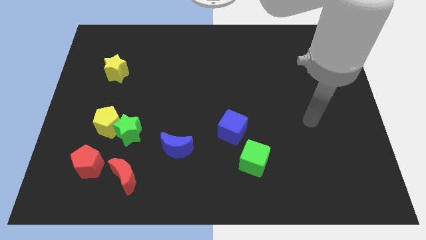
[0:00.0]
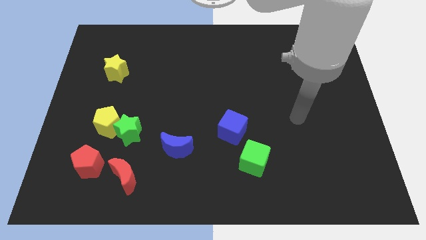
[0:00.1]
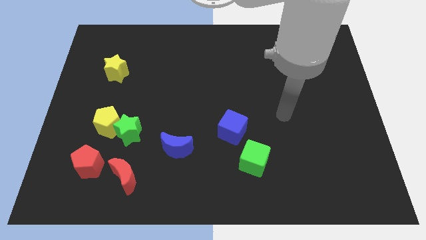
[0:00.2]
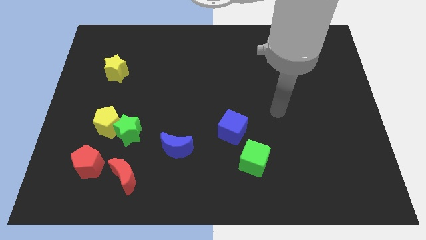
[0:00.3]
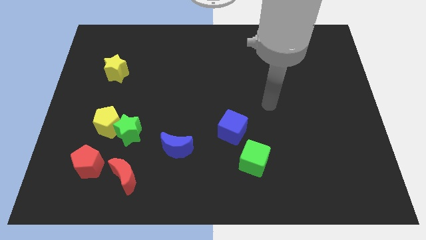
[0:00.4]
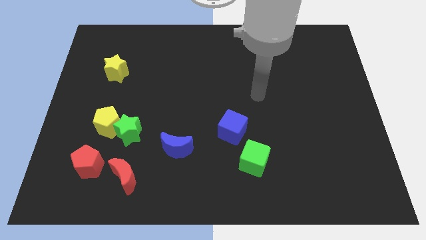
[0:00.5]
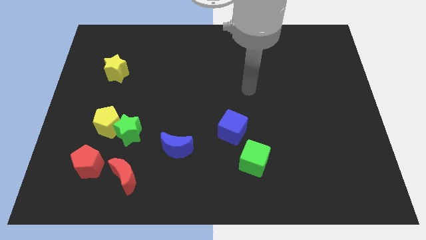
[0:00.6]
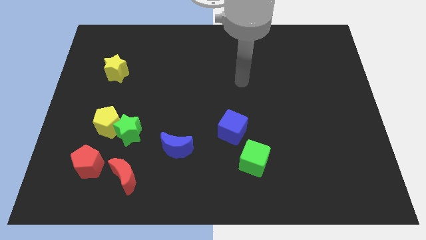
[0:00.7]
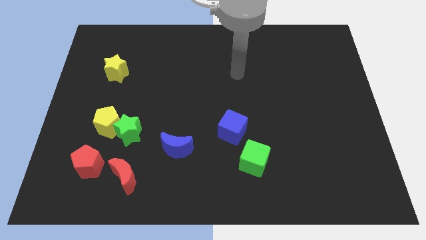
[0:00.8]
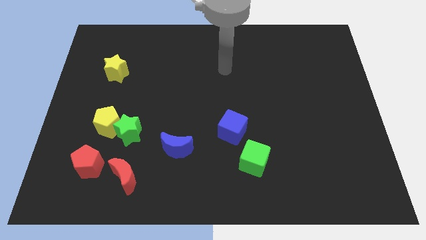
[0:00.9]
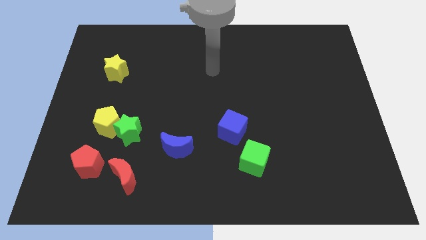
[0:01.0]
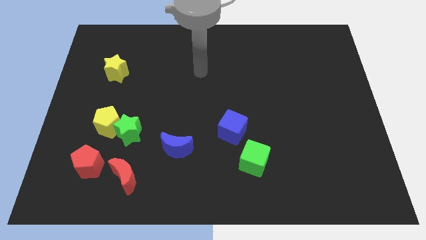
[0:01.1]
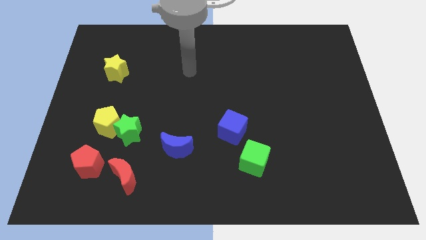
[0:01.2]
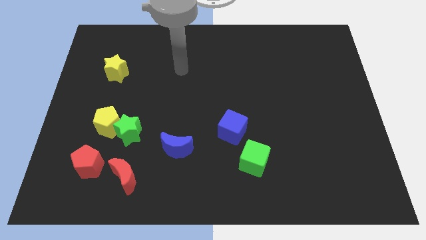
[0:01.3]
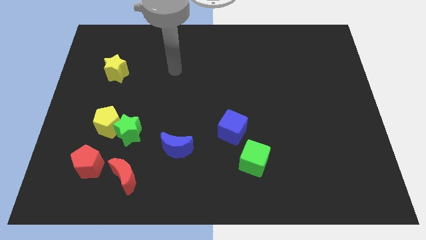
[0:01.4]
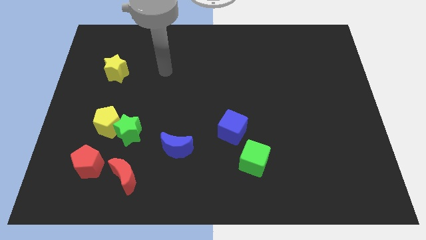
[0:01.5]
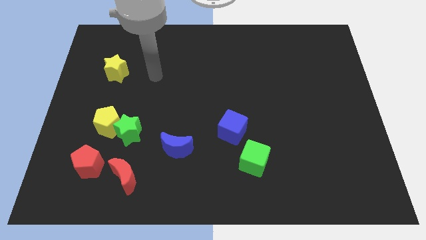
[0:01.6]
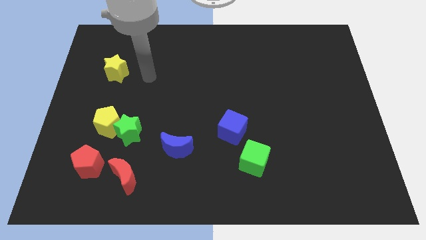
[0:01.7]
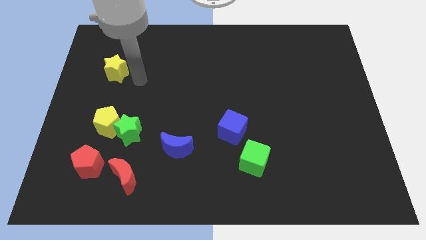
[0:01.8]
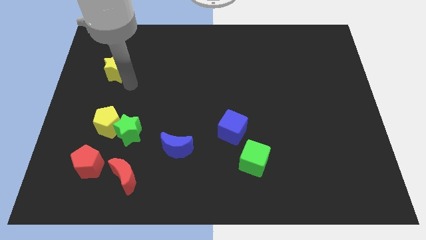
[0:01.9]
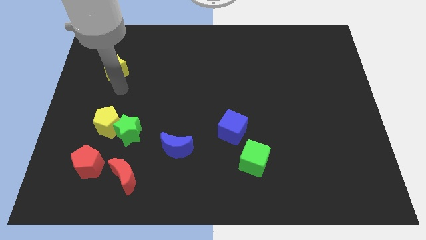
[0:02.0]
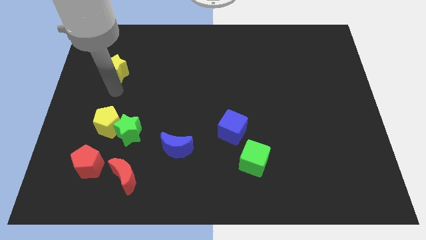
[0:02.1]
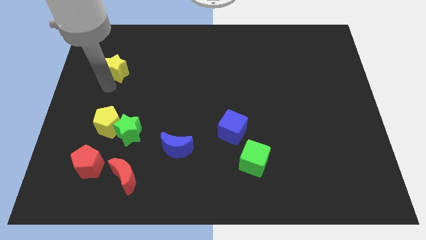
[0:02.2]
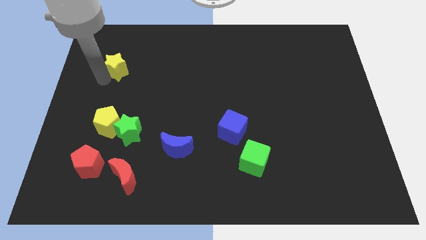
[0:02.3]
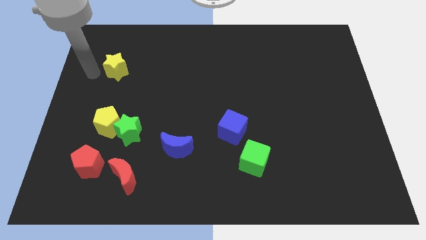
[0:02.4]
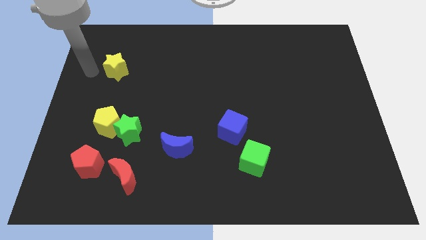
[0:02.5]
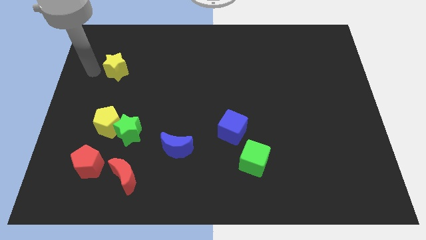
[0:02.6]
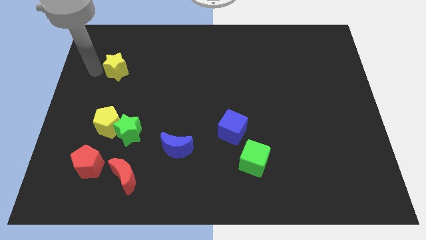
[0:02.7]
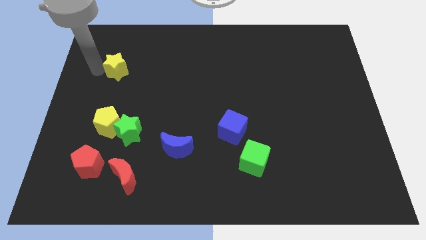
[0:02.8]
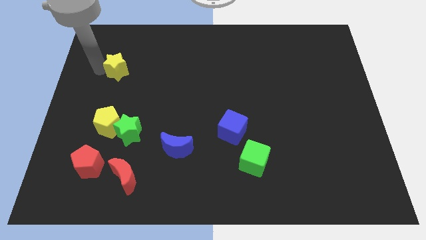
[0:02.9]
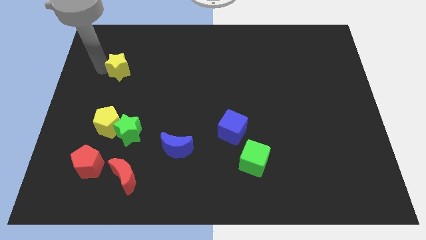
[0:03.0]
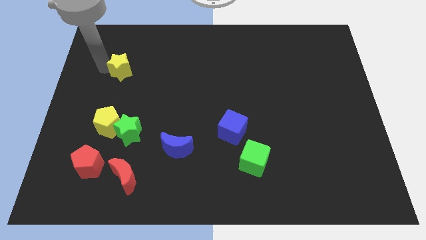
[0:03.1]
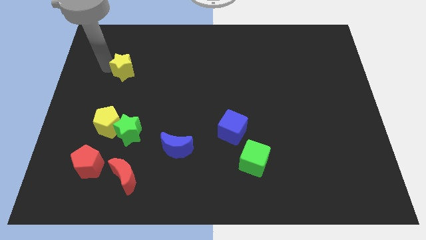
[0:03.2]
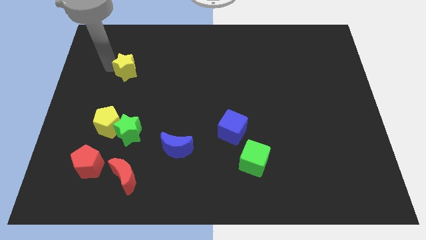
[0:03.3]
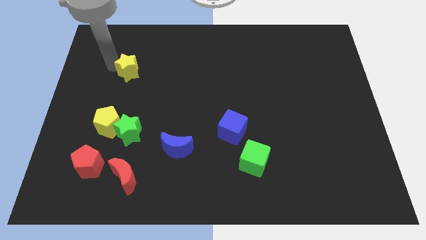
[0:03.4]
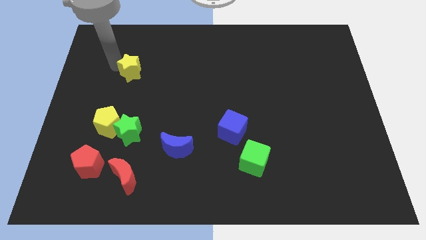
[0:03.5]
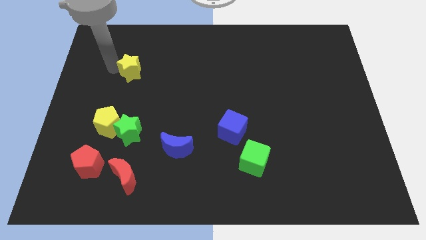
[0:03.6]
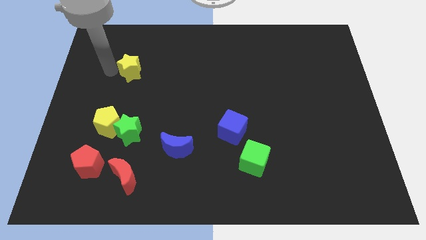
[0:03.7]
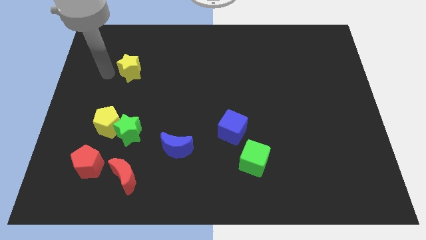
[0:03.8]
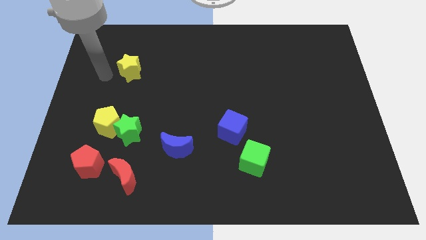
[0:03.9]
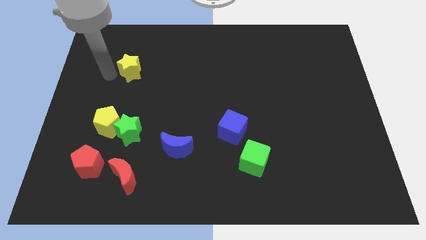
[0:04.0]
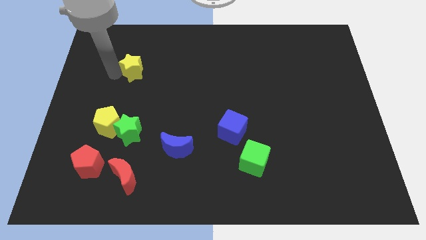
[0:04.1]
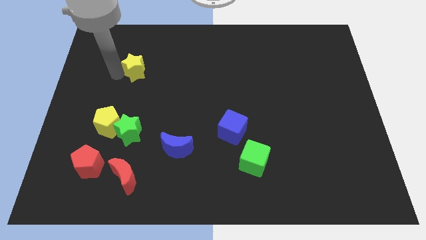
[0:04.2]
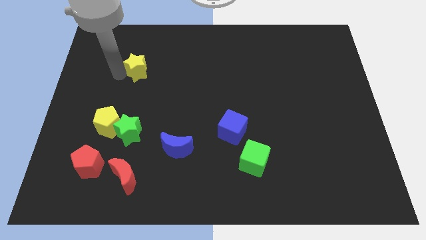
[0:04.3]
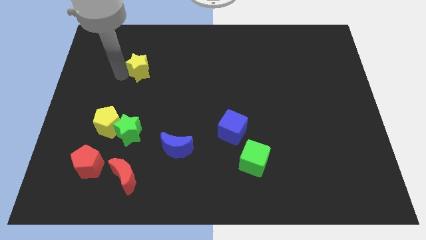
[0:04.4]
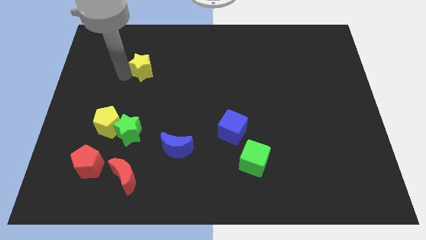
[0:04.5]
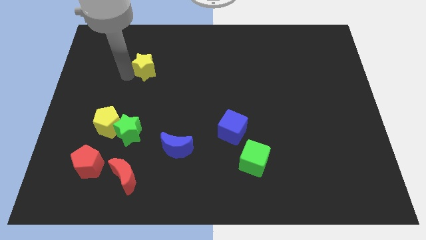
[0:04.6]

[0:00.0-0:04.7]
move the yellow star slightly to the right

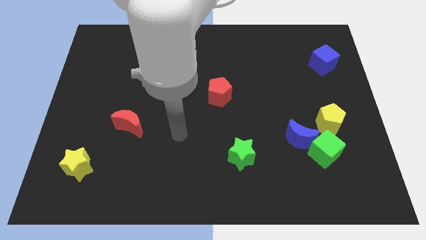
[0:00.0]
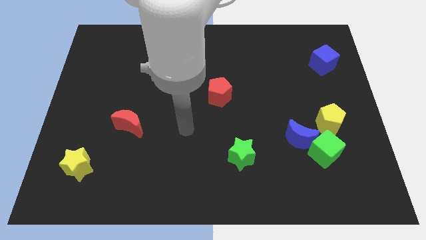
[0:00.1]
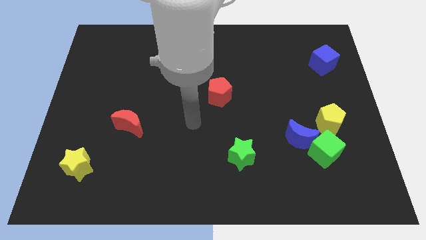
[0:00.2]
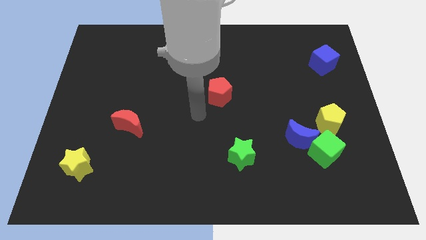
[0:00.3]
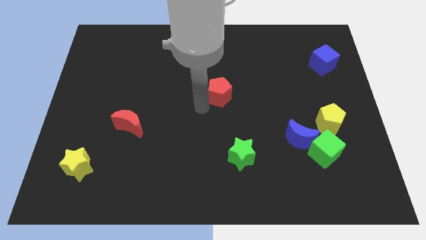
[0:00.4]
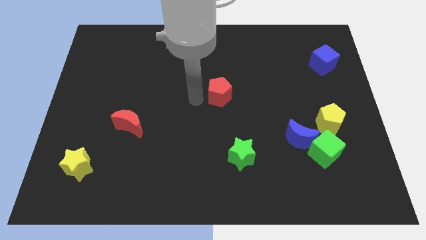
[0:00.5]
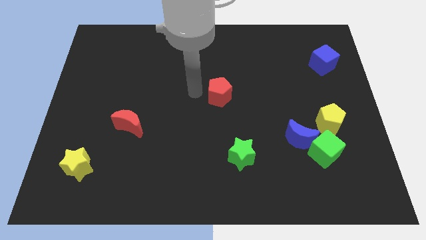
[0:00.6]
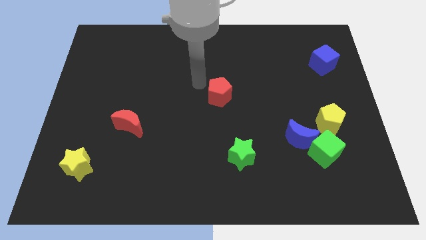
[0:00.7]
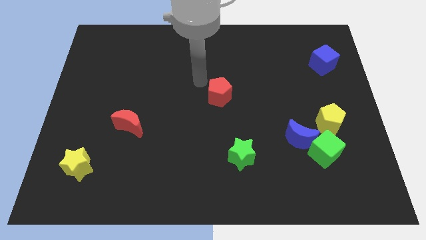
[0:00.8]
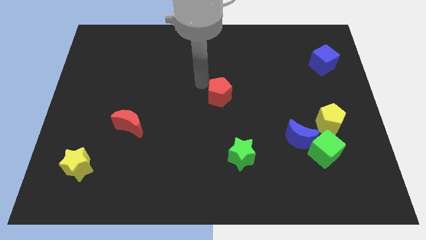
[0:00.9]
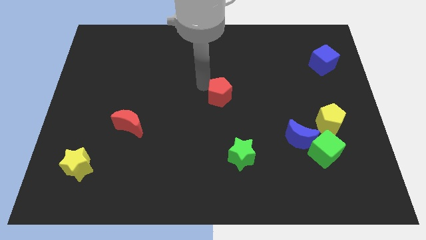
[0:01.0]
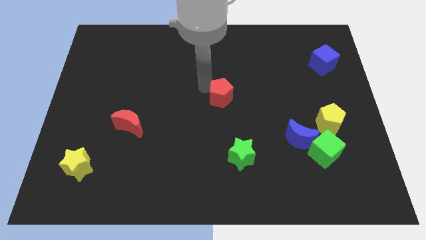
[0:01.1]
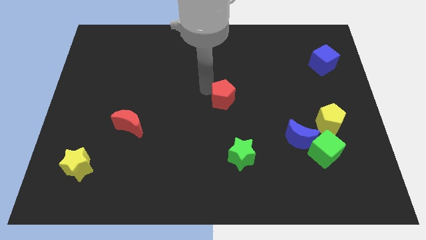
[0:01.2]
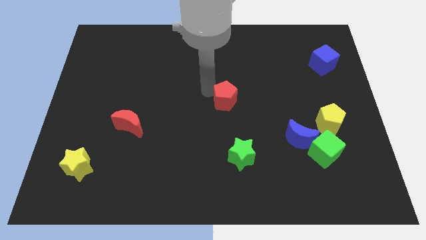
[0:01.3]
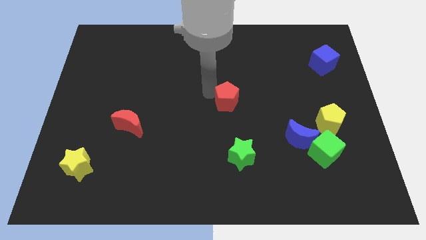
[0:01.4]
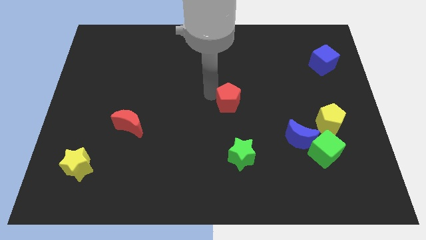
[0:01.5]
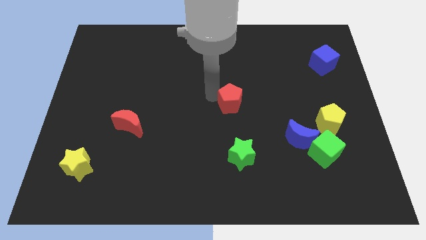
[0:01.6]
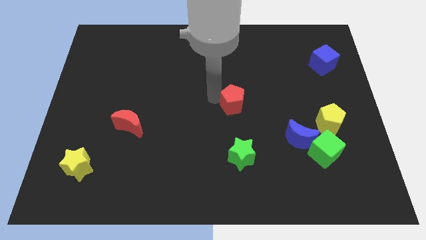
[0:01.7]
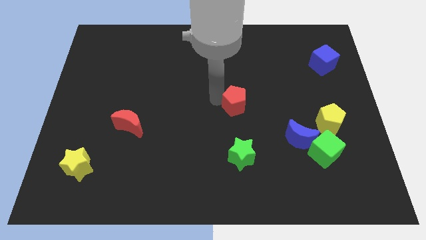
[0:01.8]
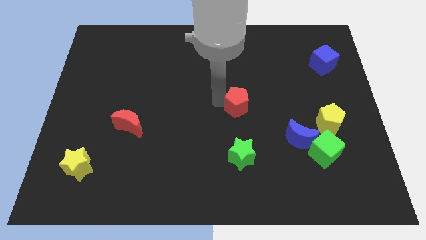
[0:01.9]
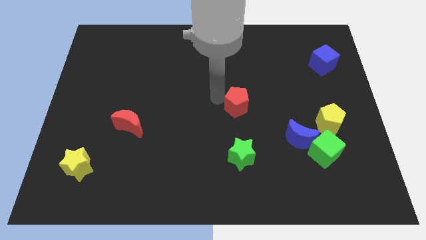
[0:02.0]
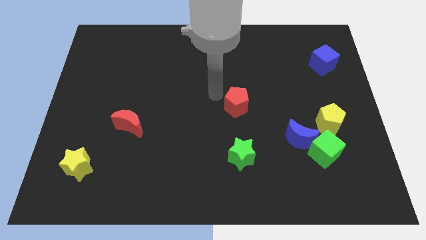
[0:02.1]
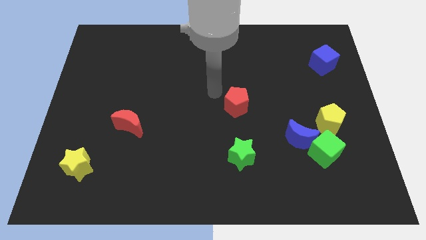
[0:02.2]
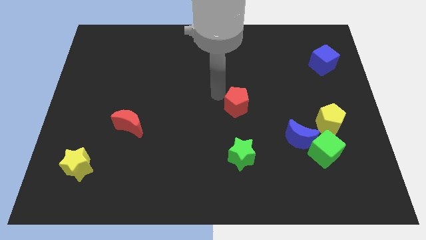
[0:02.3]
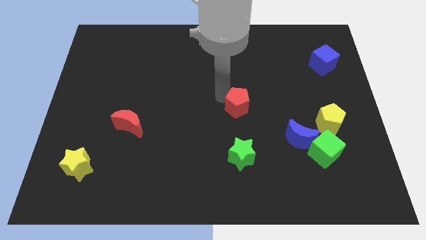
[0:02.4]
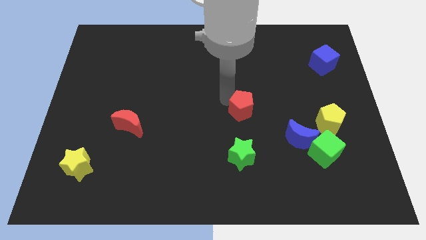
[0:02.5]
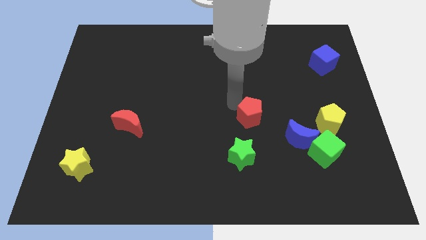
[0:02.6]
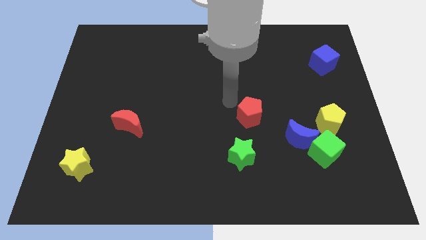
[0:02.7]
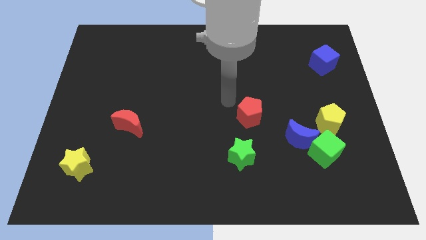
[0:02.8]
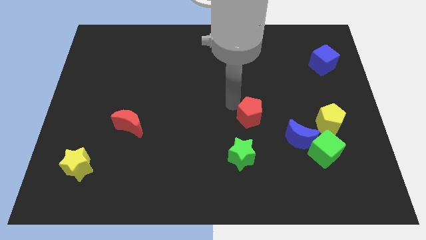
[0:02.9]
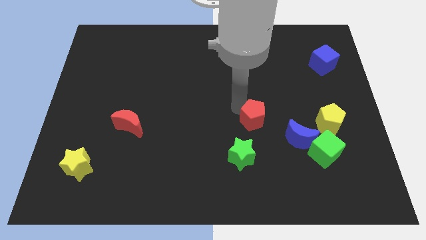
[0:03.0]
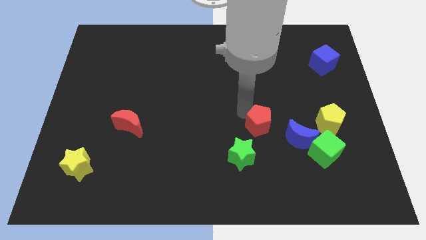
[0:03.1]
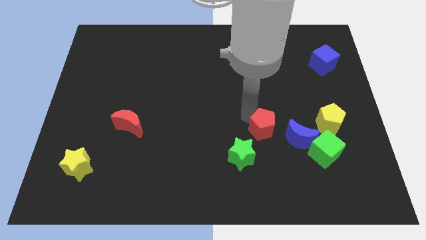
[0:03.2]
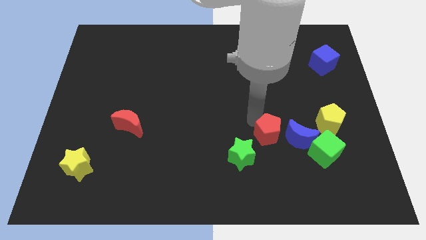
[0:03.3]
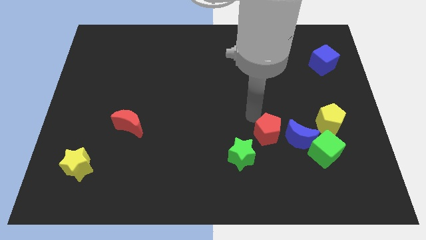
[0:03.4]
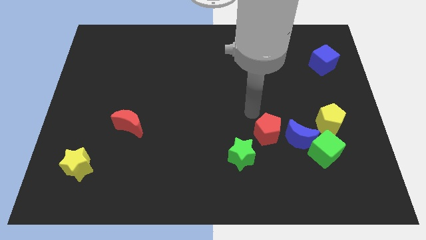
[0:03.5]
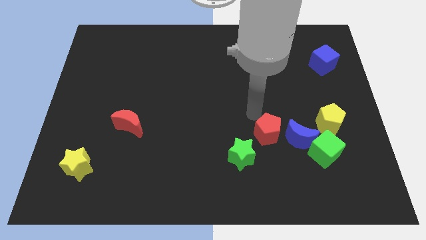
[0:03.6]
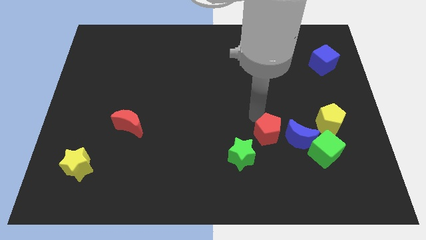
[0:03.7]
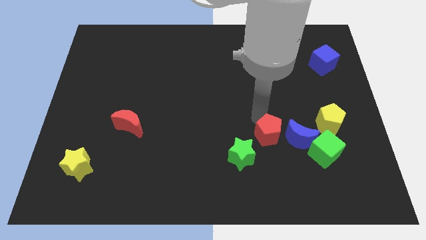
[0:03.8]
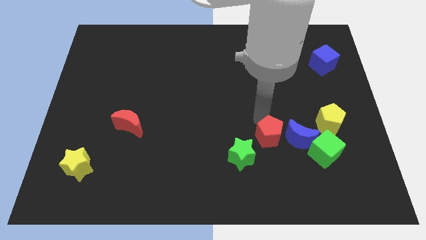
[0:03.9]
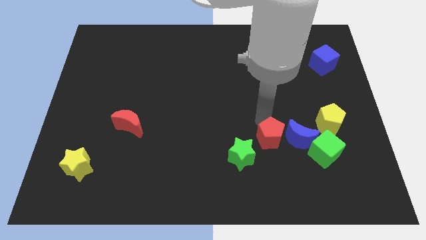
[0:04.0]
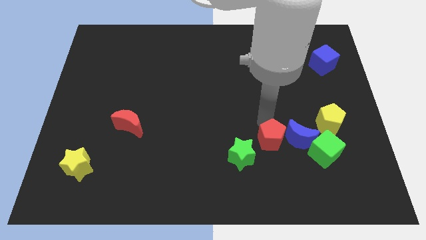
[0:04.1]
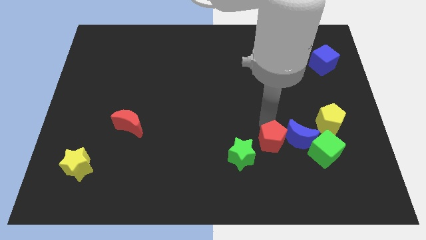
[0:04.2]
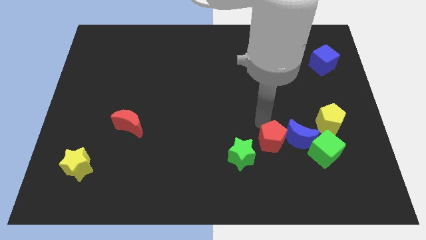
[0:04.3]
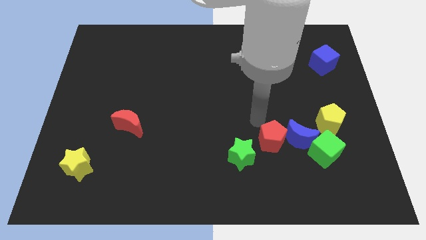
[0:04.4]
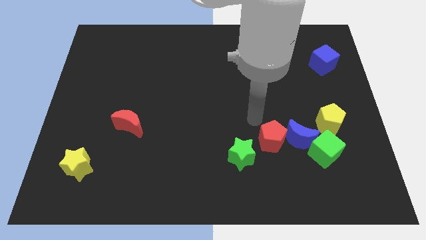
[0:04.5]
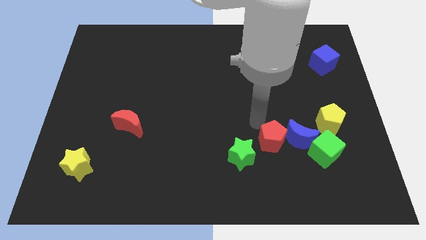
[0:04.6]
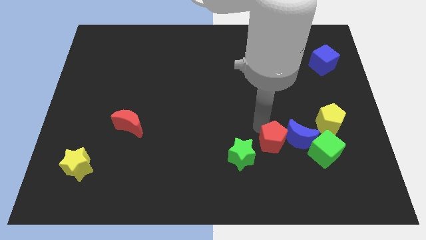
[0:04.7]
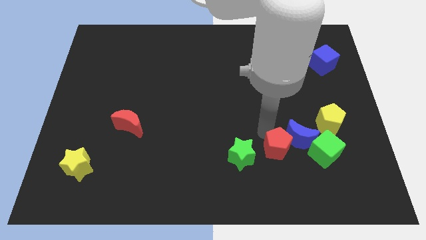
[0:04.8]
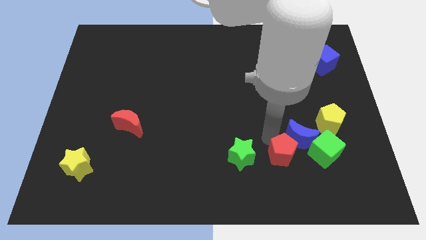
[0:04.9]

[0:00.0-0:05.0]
push the red pentagon down and right diagonally
